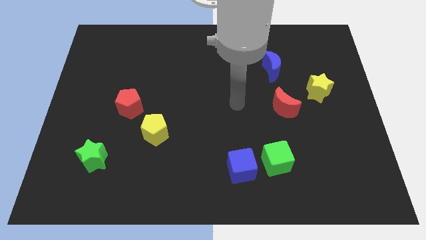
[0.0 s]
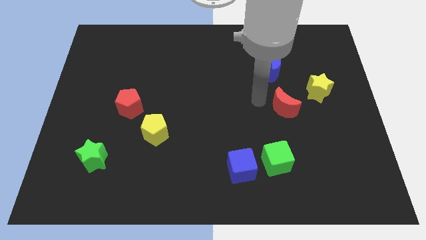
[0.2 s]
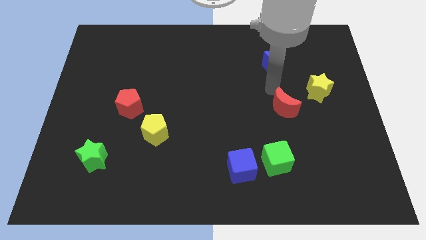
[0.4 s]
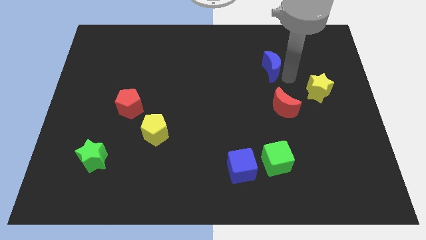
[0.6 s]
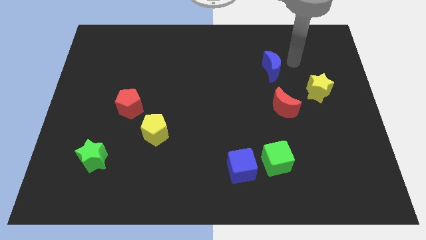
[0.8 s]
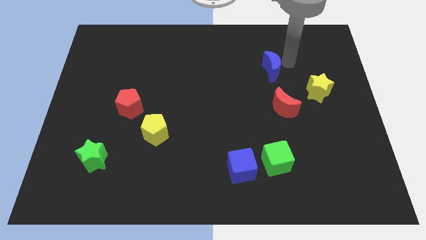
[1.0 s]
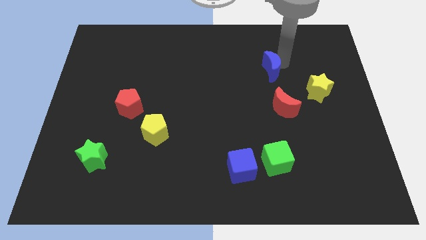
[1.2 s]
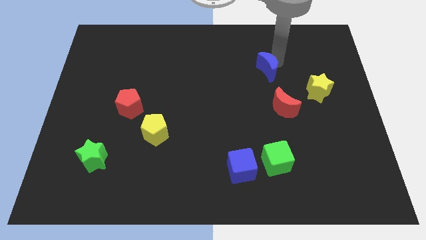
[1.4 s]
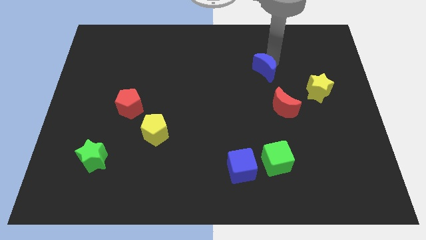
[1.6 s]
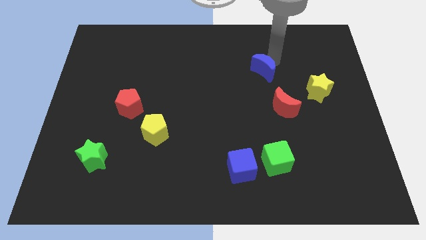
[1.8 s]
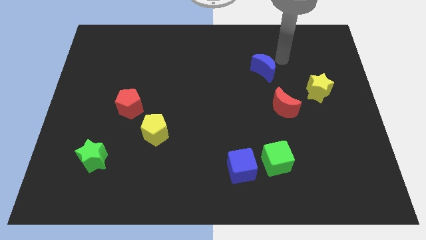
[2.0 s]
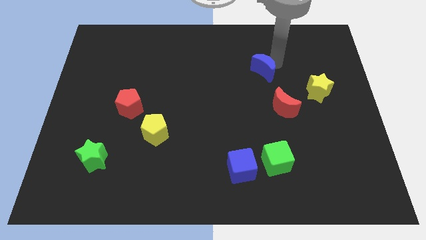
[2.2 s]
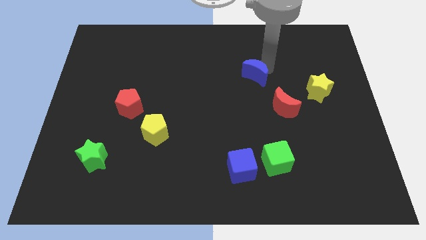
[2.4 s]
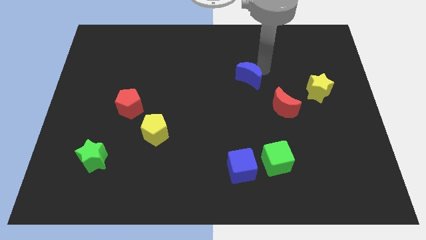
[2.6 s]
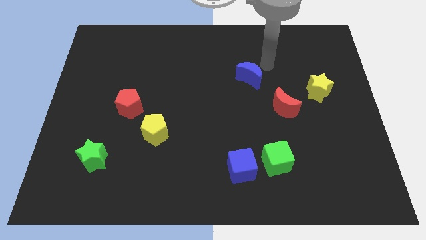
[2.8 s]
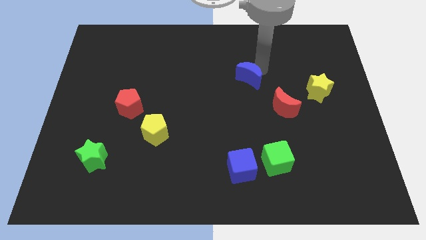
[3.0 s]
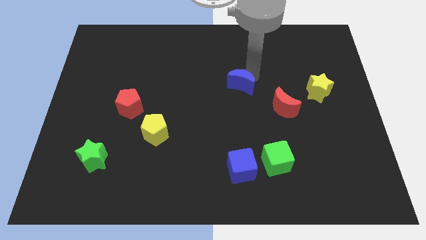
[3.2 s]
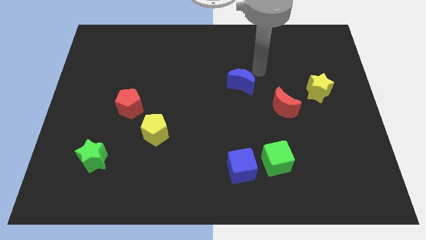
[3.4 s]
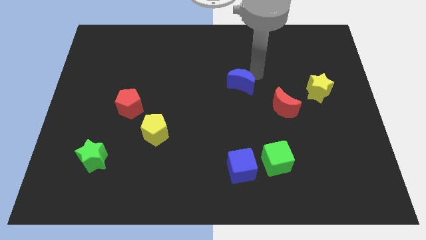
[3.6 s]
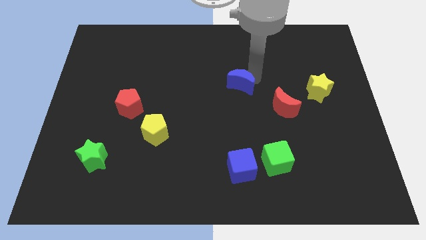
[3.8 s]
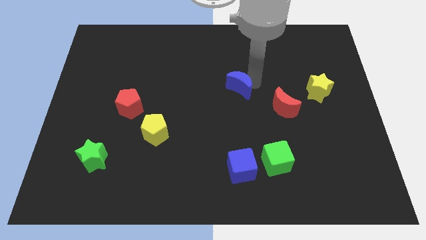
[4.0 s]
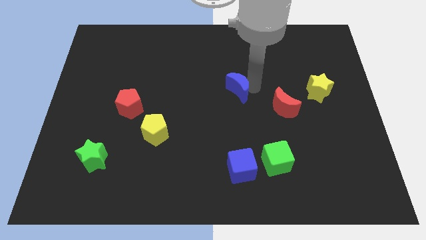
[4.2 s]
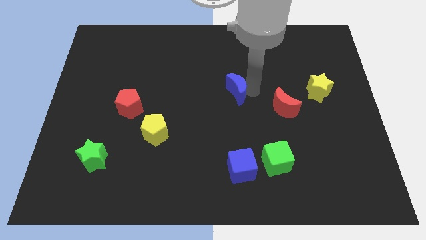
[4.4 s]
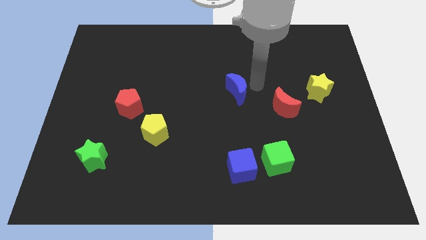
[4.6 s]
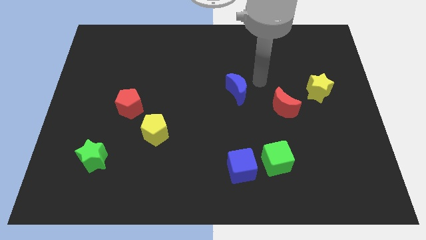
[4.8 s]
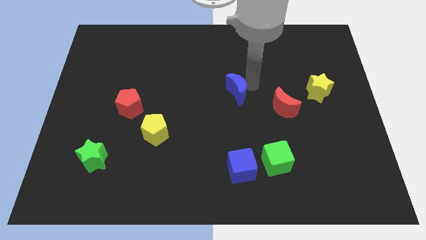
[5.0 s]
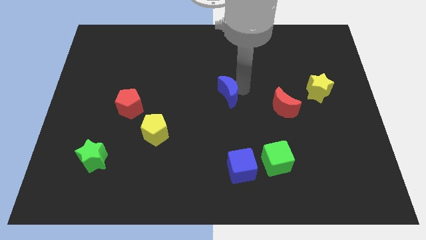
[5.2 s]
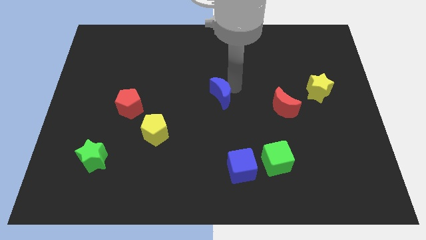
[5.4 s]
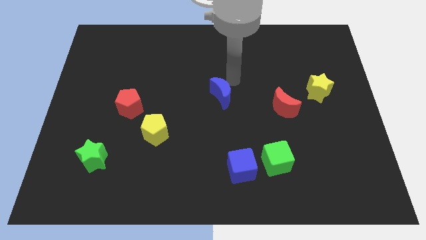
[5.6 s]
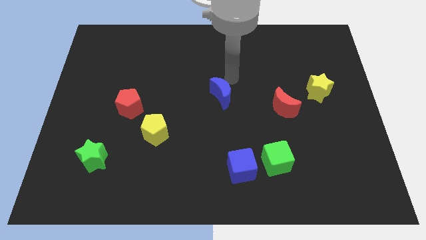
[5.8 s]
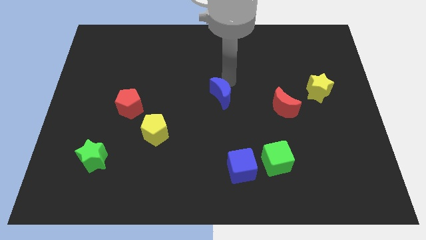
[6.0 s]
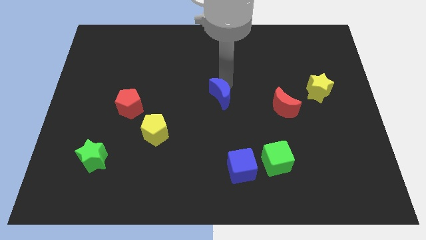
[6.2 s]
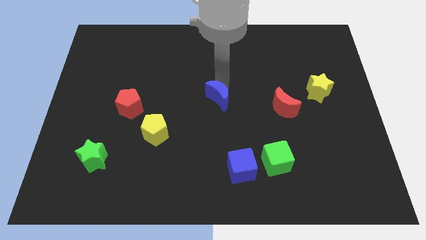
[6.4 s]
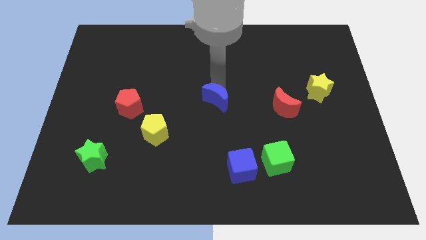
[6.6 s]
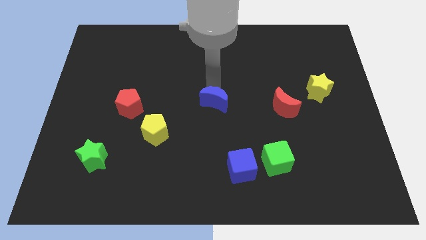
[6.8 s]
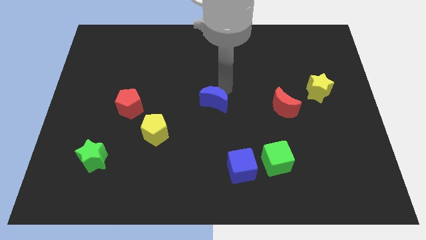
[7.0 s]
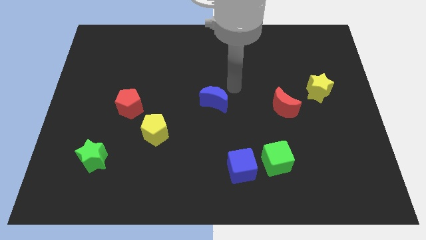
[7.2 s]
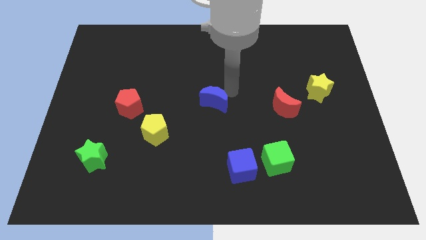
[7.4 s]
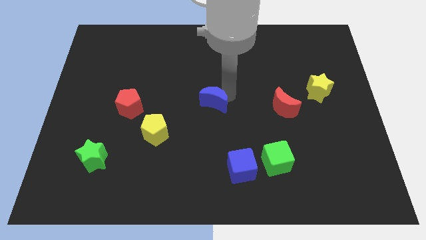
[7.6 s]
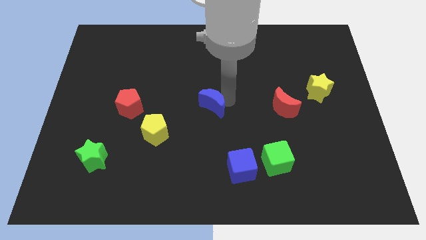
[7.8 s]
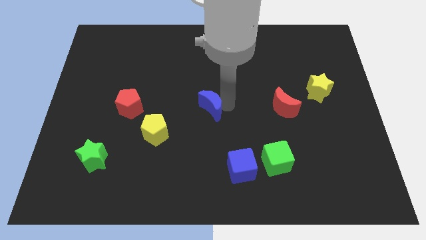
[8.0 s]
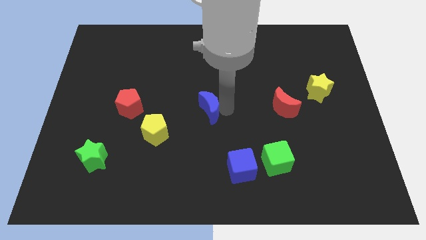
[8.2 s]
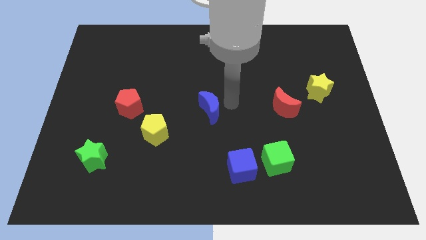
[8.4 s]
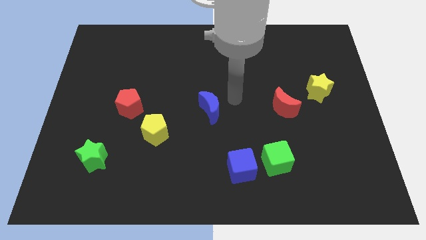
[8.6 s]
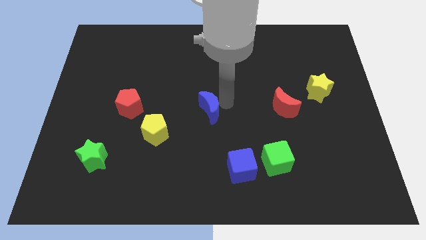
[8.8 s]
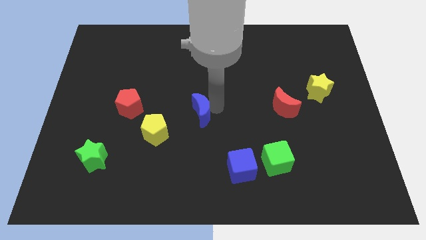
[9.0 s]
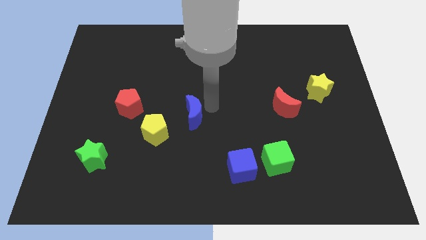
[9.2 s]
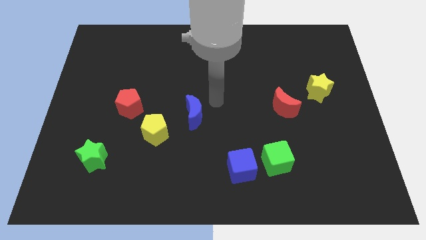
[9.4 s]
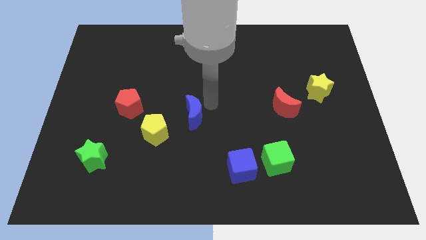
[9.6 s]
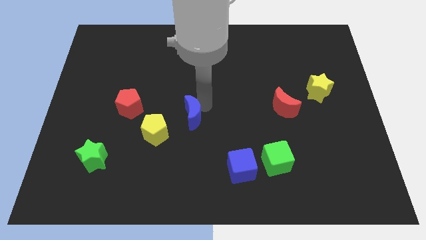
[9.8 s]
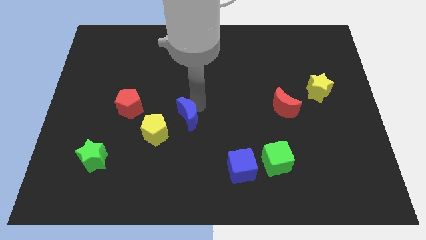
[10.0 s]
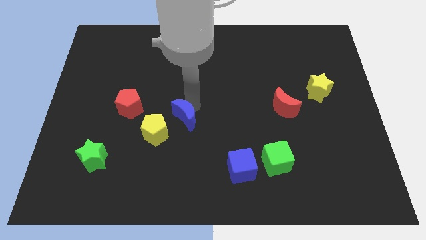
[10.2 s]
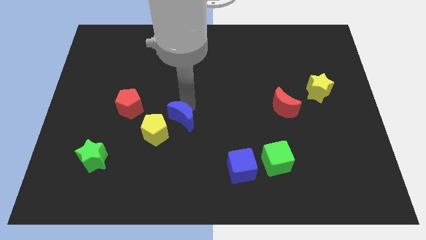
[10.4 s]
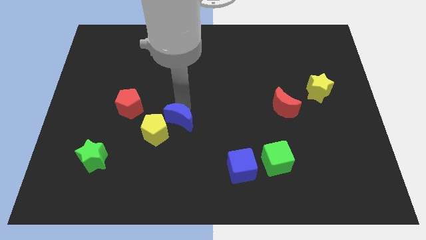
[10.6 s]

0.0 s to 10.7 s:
push the blue moon close to the yellow pentagon

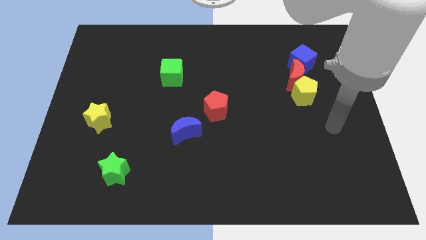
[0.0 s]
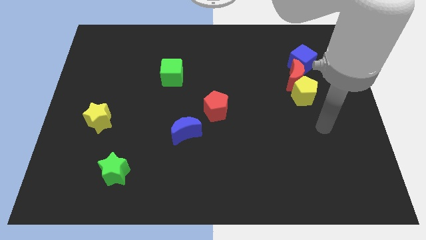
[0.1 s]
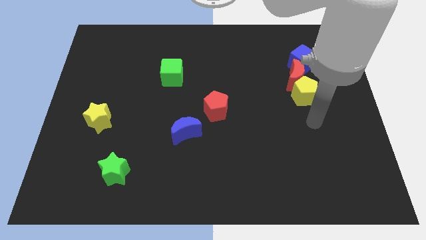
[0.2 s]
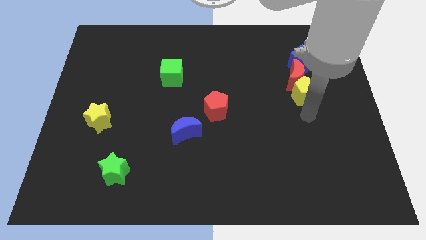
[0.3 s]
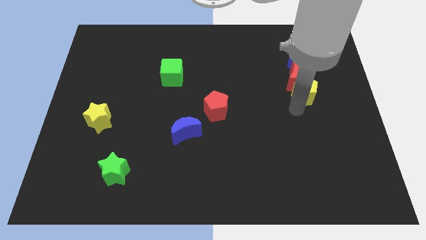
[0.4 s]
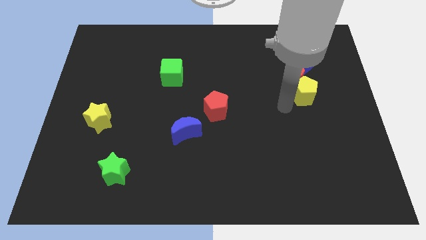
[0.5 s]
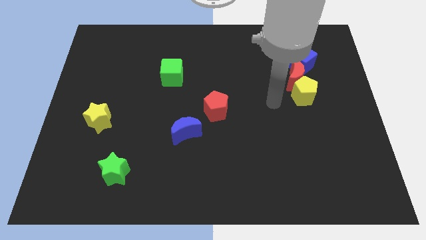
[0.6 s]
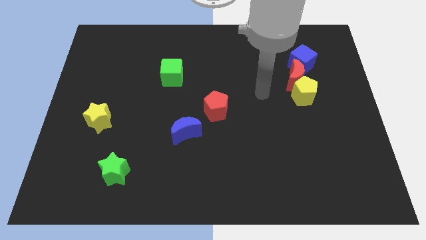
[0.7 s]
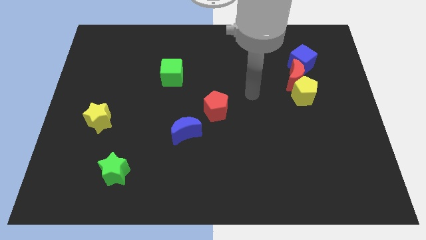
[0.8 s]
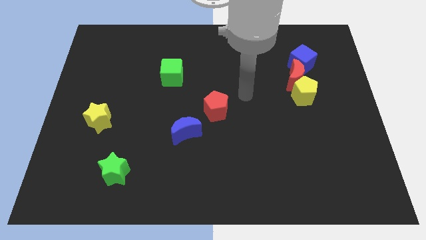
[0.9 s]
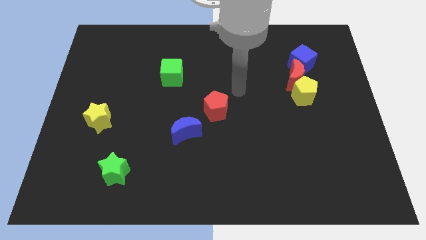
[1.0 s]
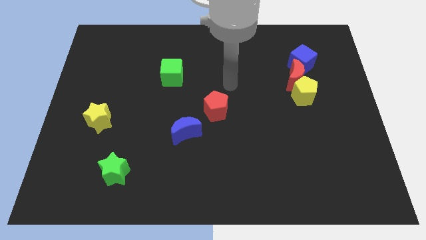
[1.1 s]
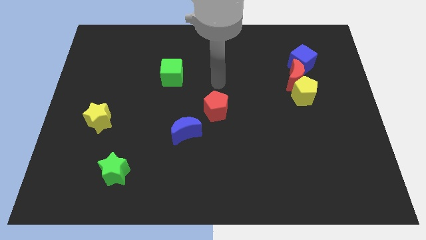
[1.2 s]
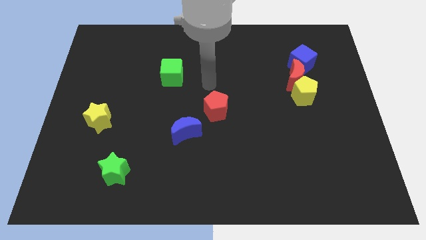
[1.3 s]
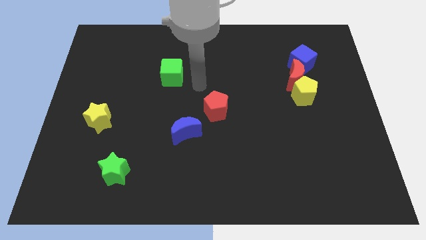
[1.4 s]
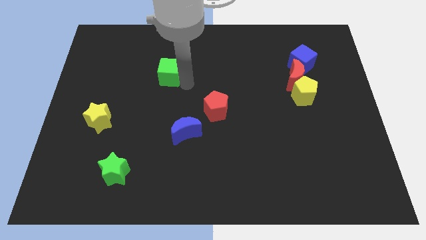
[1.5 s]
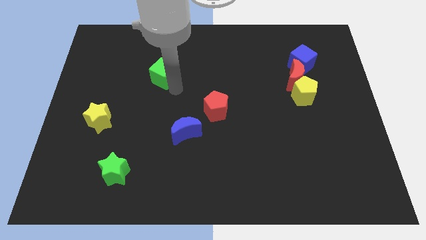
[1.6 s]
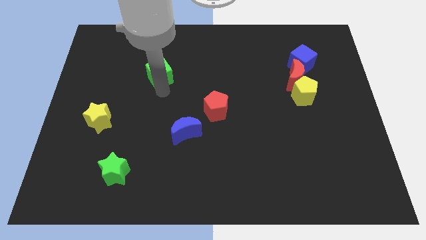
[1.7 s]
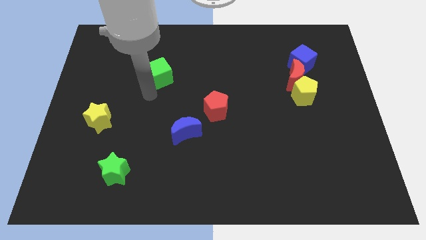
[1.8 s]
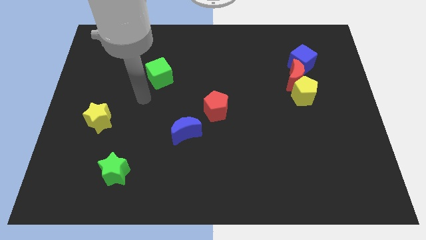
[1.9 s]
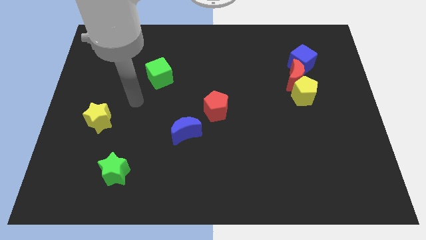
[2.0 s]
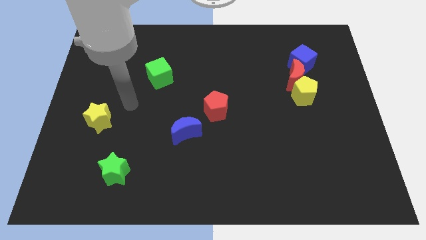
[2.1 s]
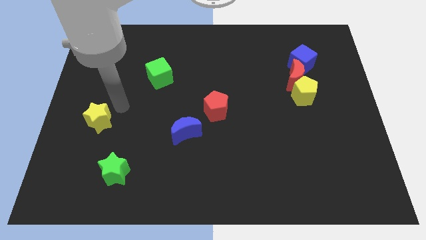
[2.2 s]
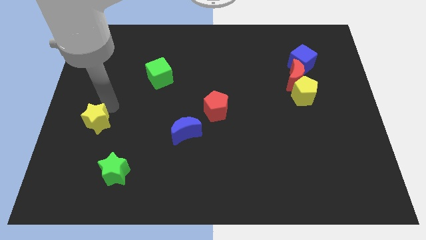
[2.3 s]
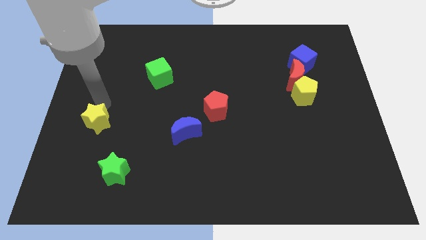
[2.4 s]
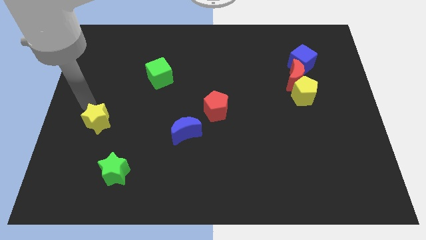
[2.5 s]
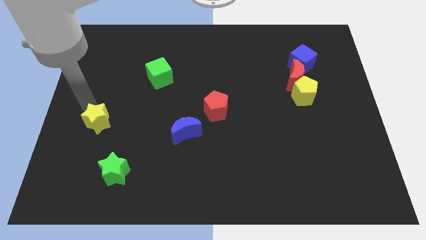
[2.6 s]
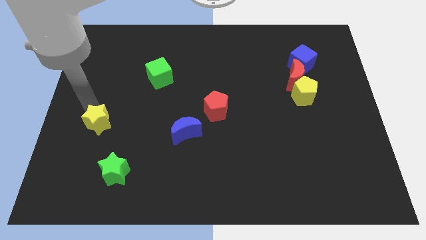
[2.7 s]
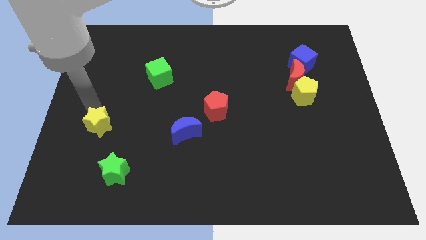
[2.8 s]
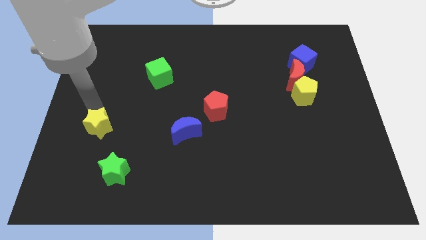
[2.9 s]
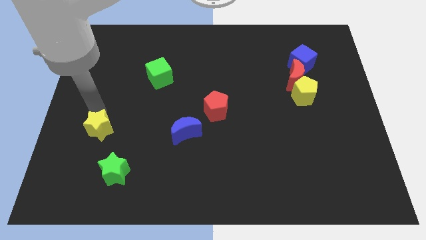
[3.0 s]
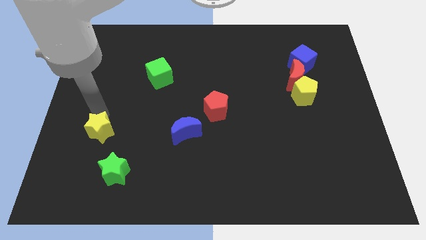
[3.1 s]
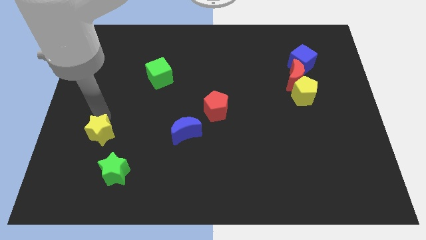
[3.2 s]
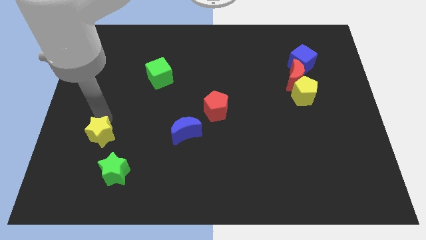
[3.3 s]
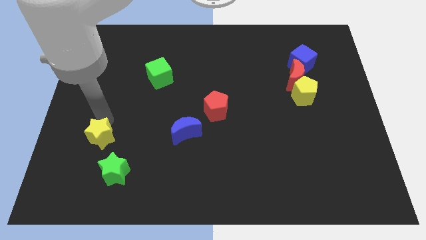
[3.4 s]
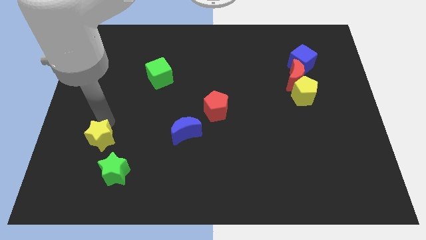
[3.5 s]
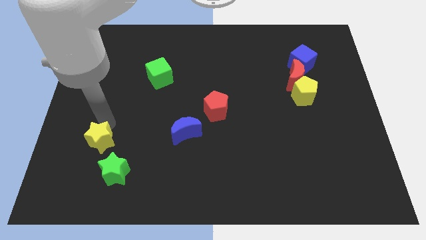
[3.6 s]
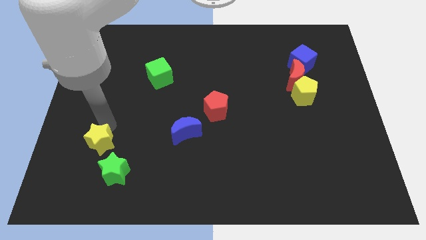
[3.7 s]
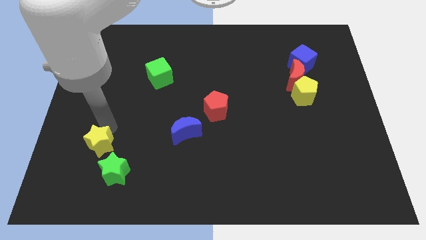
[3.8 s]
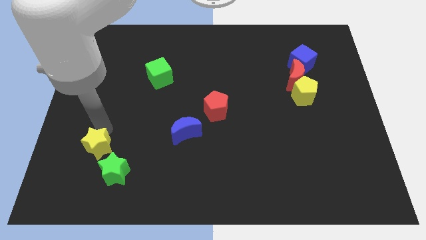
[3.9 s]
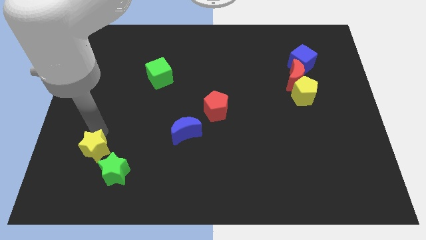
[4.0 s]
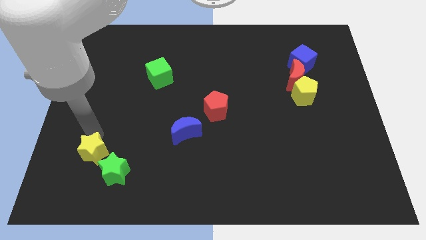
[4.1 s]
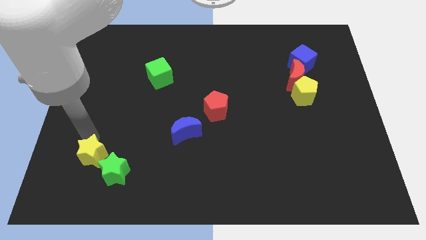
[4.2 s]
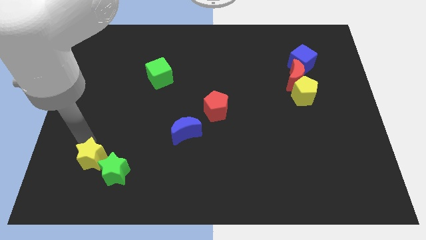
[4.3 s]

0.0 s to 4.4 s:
move the yellow star towards the green star
